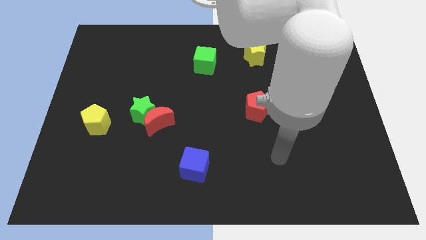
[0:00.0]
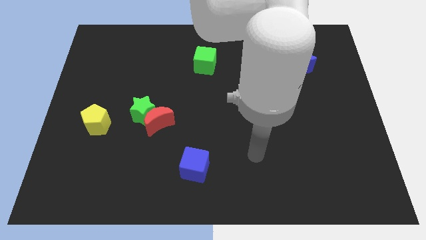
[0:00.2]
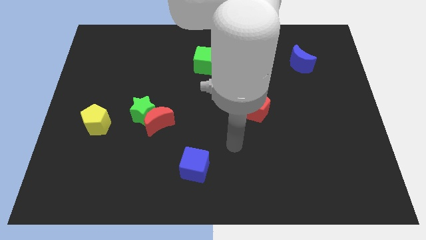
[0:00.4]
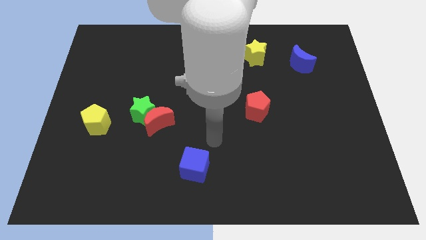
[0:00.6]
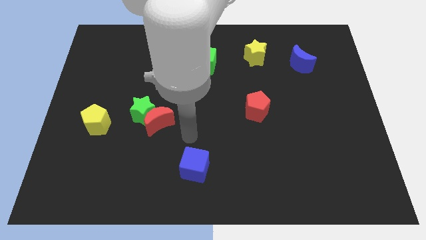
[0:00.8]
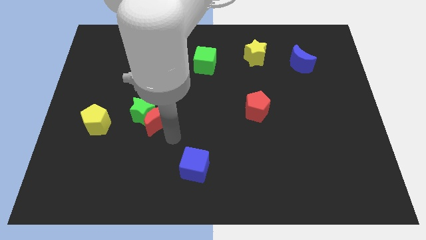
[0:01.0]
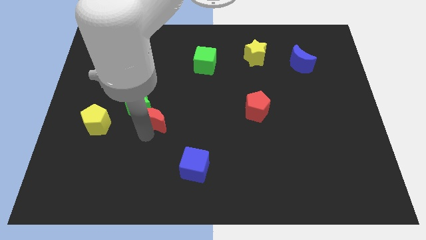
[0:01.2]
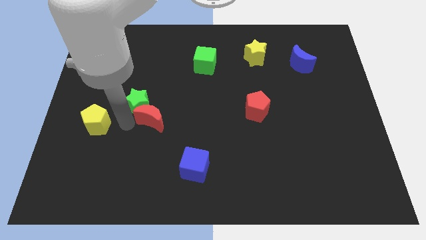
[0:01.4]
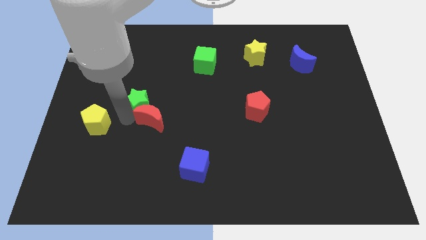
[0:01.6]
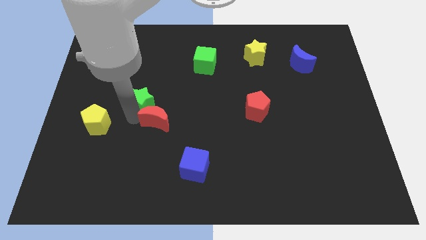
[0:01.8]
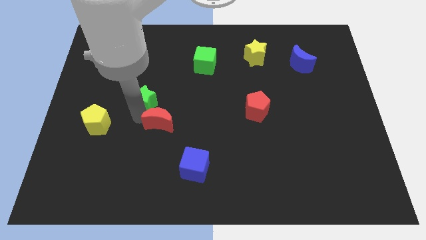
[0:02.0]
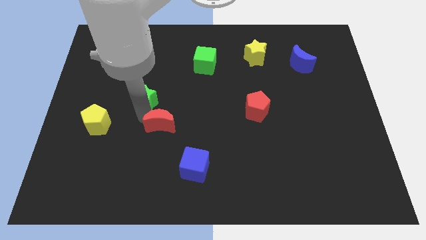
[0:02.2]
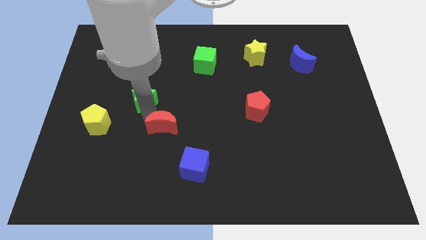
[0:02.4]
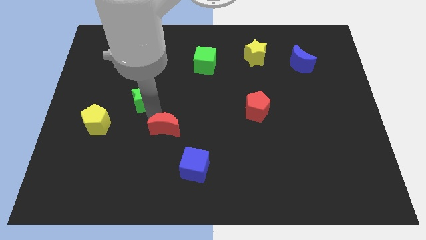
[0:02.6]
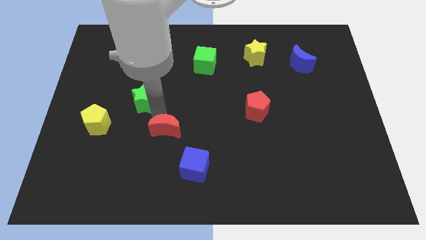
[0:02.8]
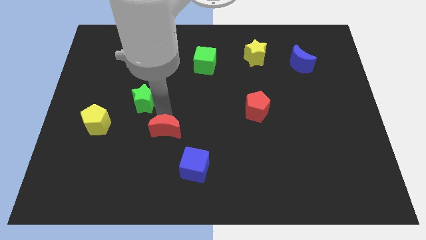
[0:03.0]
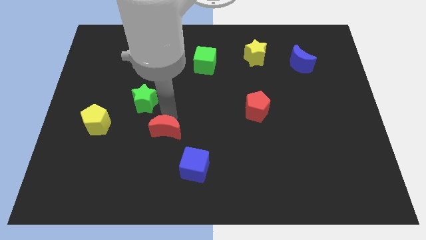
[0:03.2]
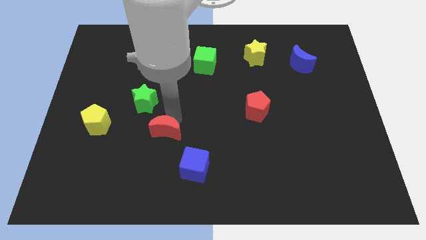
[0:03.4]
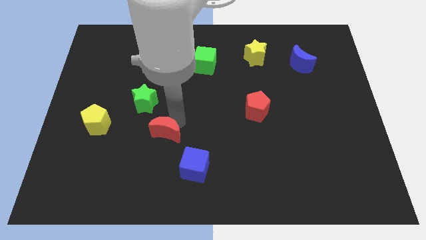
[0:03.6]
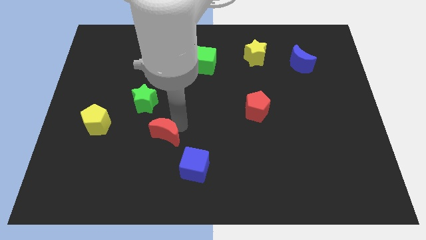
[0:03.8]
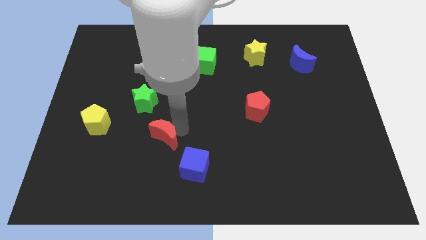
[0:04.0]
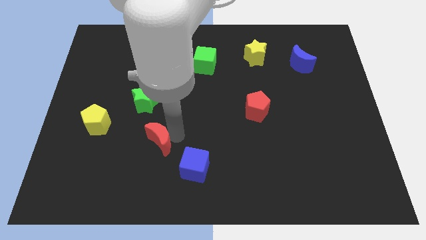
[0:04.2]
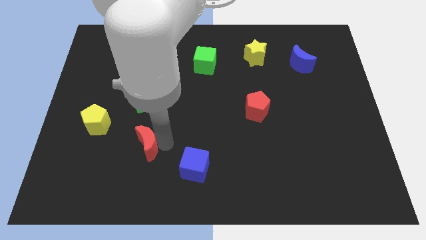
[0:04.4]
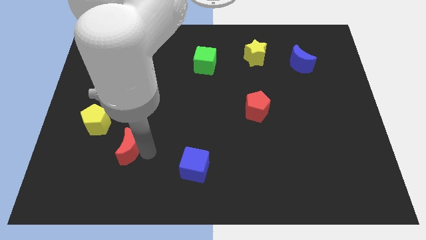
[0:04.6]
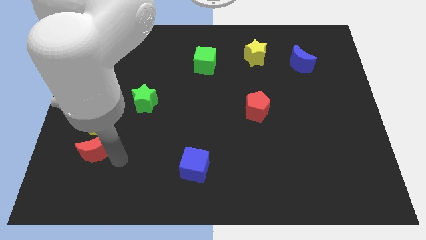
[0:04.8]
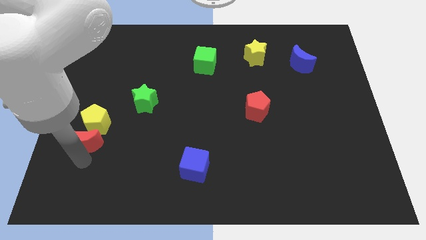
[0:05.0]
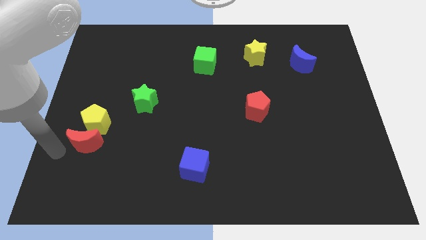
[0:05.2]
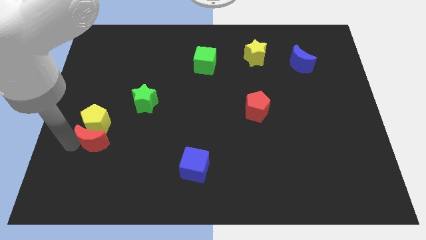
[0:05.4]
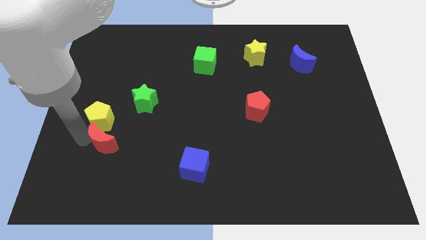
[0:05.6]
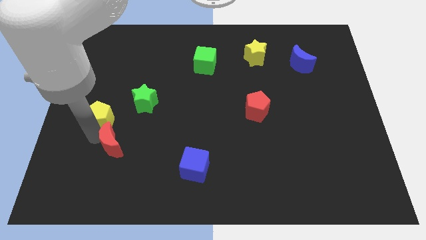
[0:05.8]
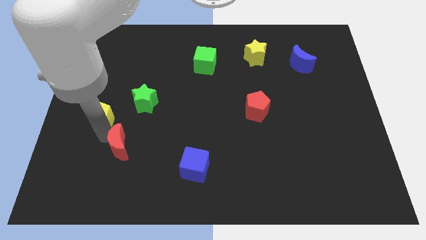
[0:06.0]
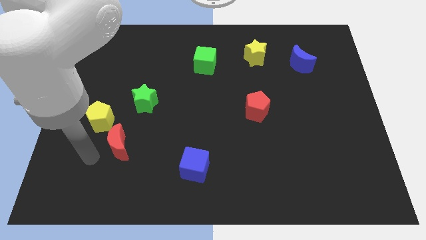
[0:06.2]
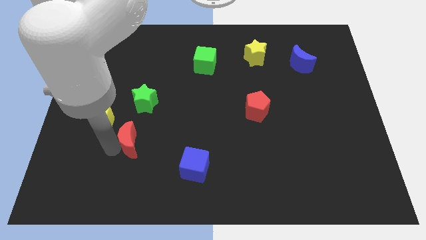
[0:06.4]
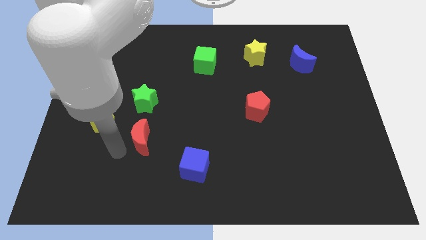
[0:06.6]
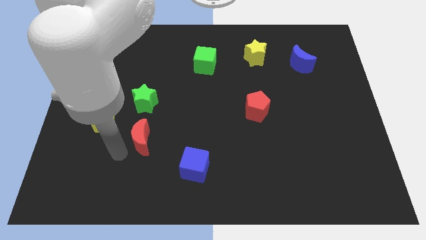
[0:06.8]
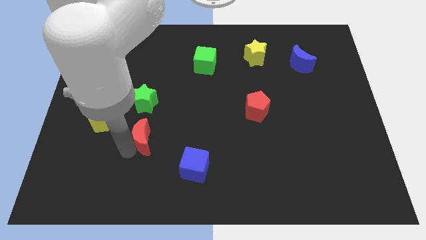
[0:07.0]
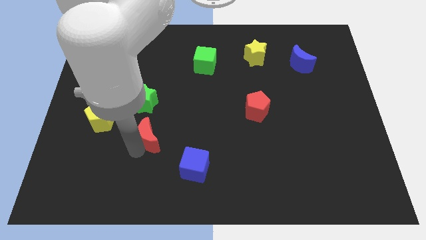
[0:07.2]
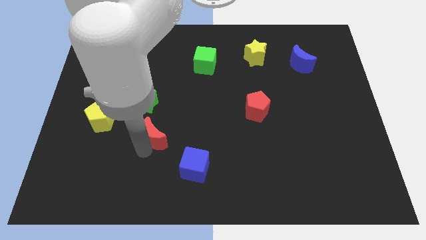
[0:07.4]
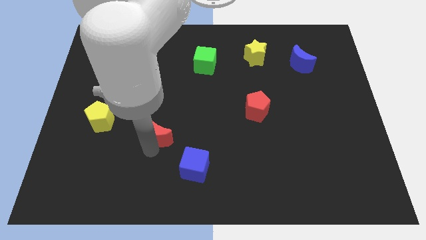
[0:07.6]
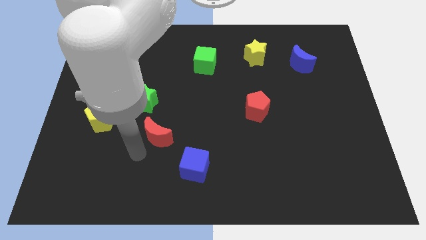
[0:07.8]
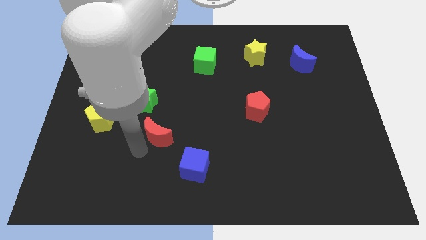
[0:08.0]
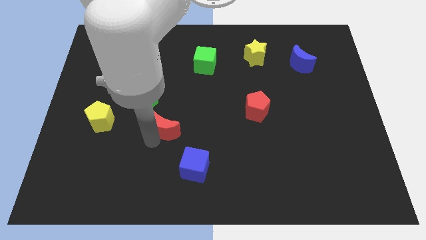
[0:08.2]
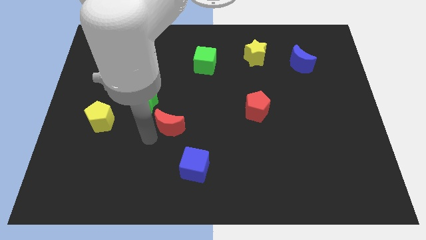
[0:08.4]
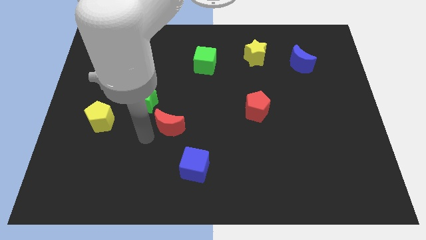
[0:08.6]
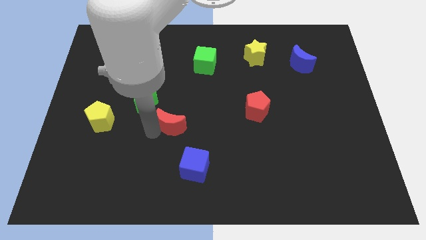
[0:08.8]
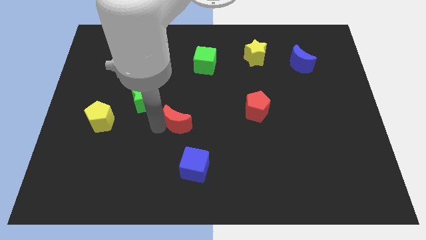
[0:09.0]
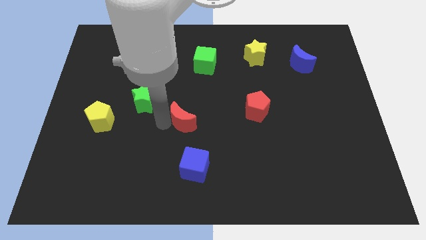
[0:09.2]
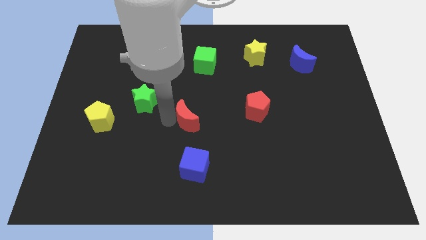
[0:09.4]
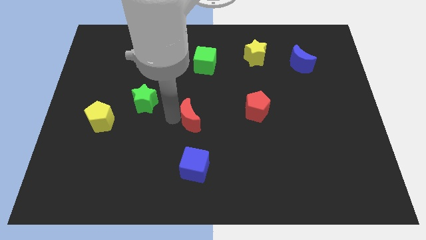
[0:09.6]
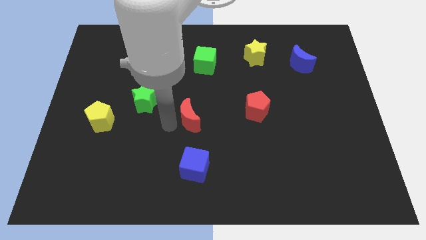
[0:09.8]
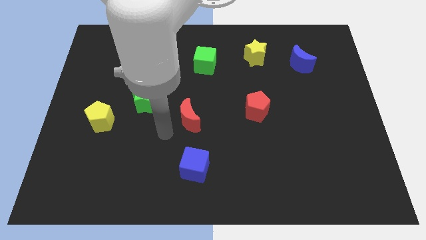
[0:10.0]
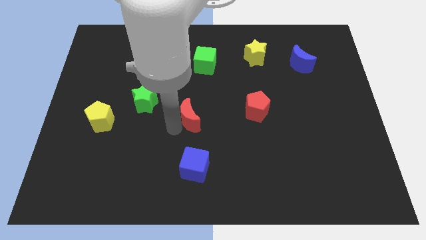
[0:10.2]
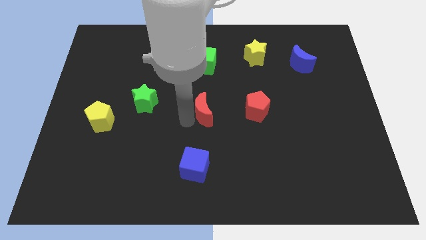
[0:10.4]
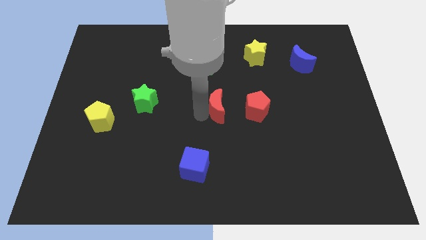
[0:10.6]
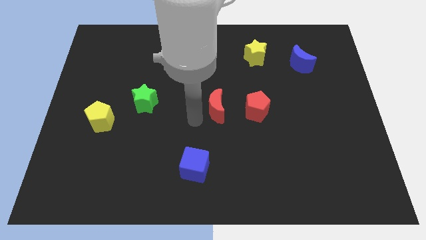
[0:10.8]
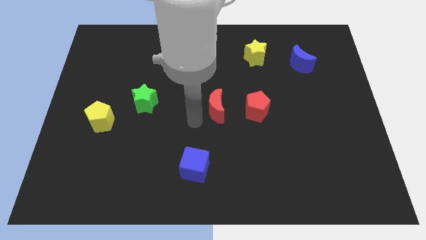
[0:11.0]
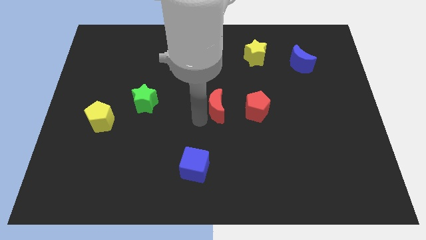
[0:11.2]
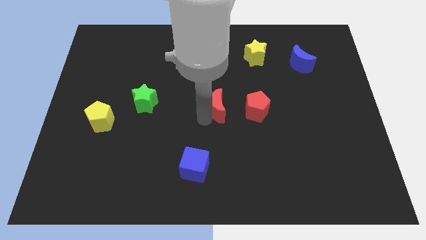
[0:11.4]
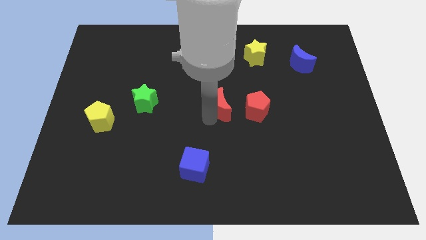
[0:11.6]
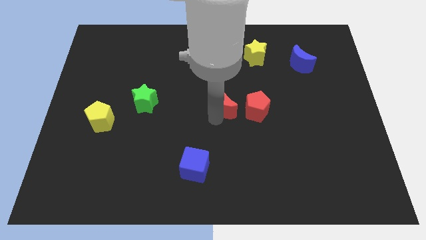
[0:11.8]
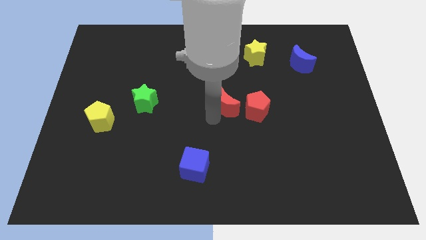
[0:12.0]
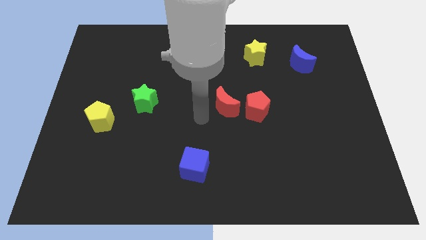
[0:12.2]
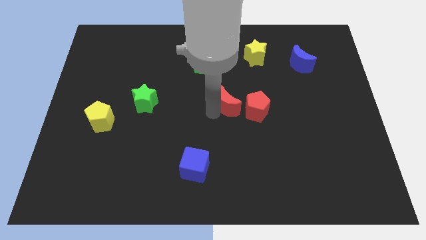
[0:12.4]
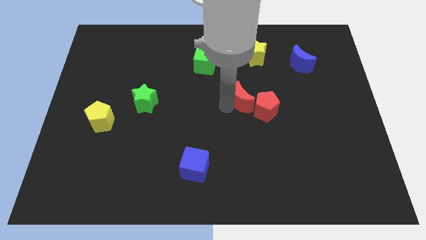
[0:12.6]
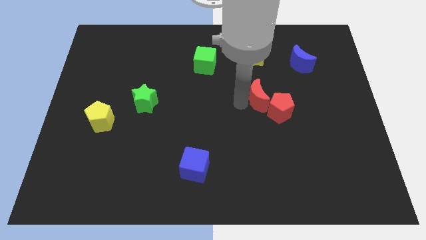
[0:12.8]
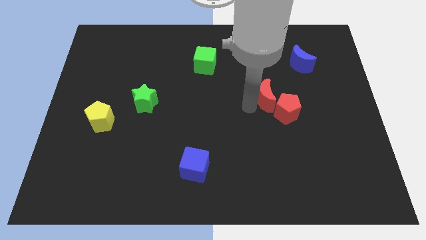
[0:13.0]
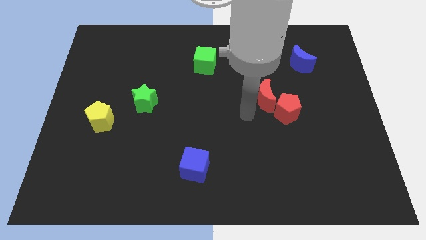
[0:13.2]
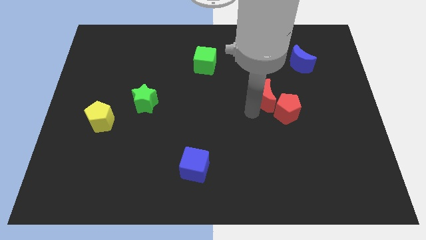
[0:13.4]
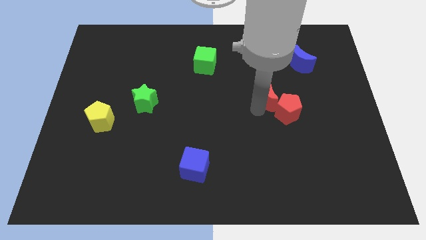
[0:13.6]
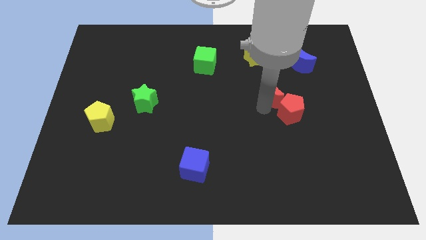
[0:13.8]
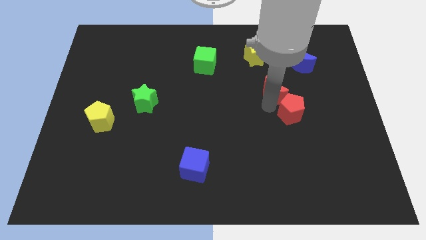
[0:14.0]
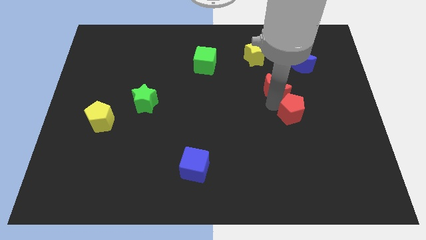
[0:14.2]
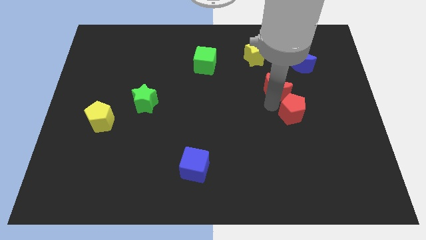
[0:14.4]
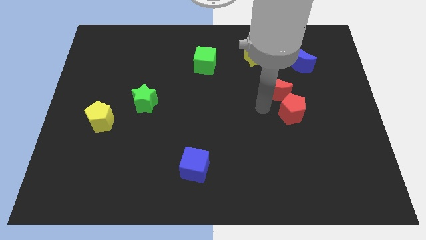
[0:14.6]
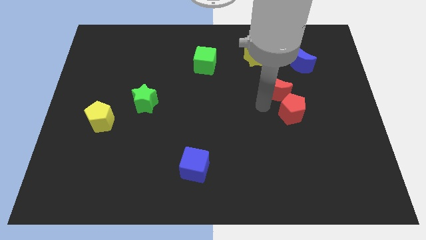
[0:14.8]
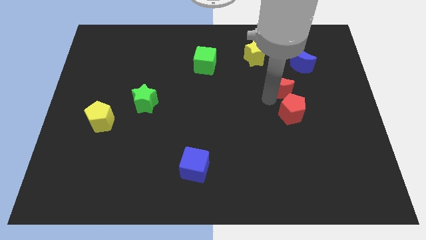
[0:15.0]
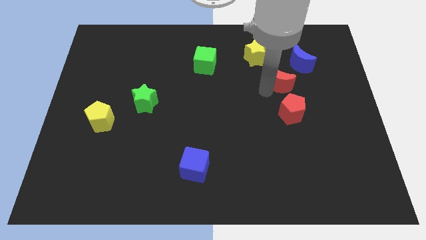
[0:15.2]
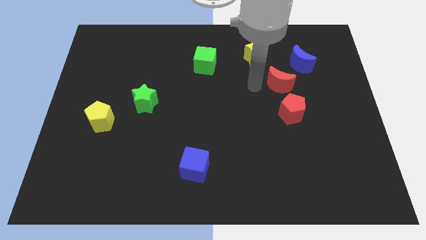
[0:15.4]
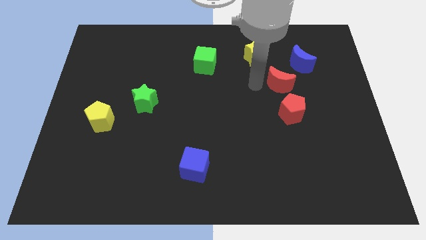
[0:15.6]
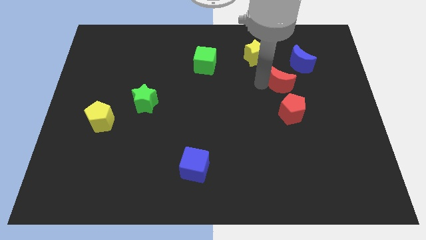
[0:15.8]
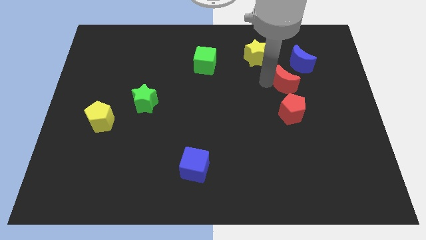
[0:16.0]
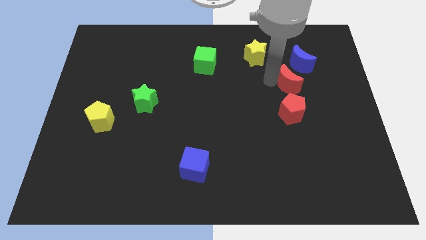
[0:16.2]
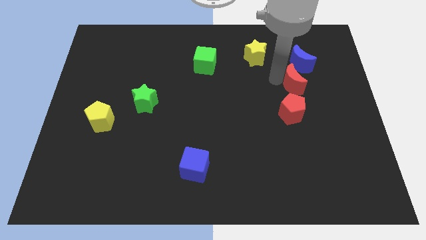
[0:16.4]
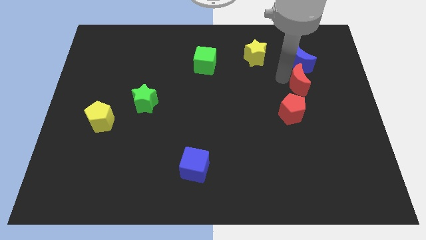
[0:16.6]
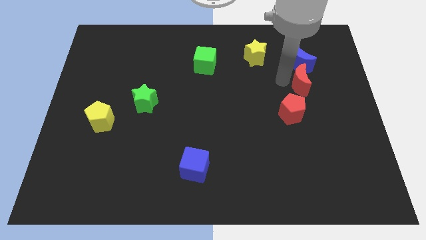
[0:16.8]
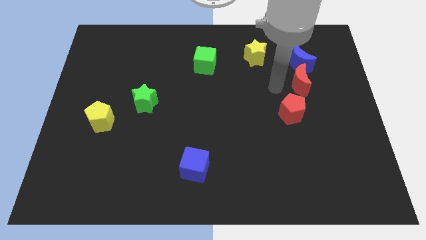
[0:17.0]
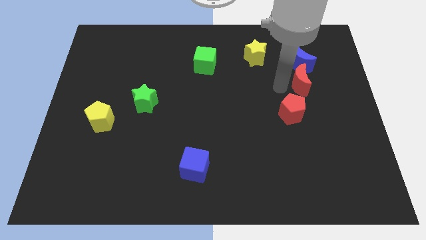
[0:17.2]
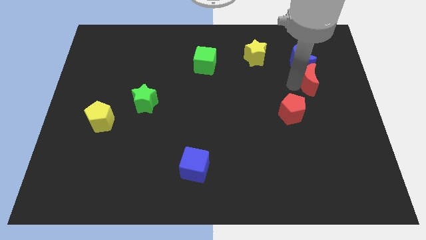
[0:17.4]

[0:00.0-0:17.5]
move the red moon to the bottom right side of the blue moon
